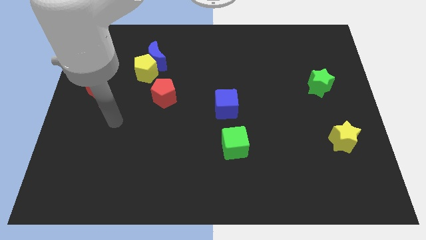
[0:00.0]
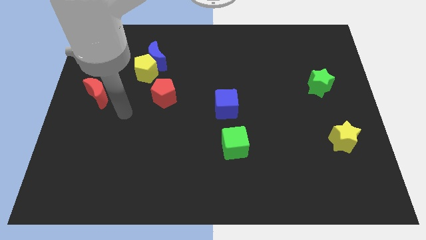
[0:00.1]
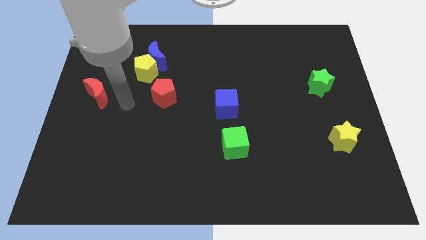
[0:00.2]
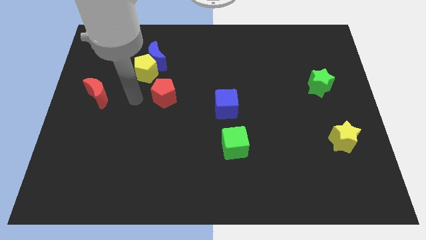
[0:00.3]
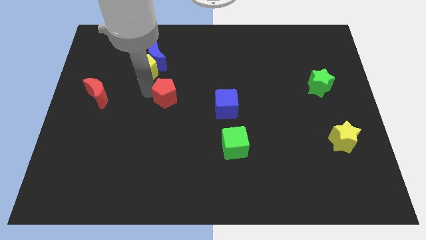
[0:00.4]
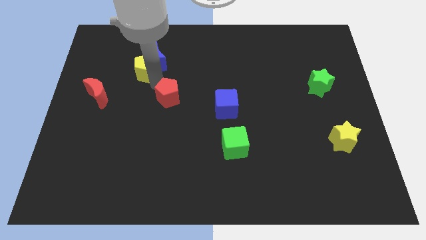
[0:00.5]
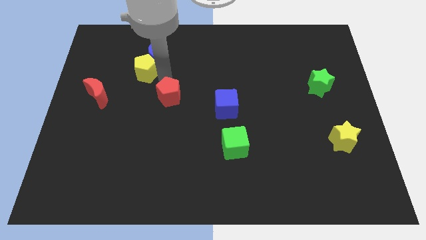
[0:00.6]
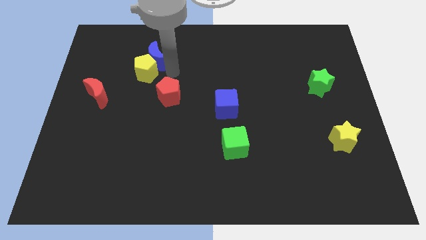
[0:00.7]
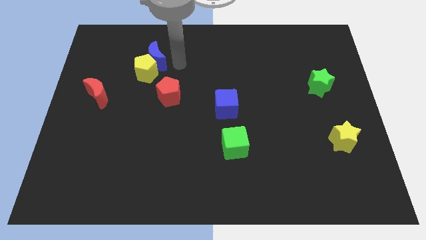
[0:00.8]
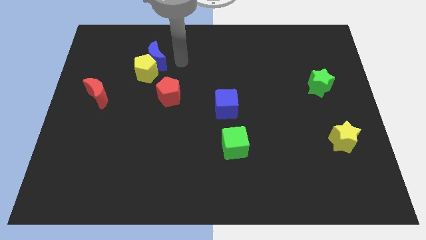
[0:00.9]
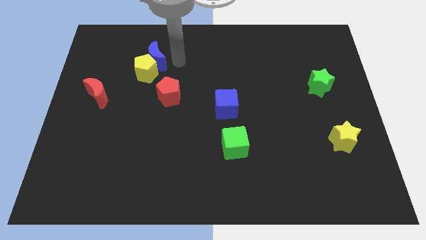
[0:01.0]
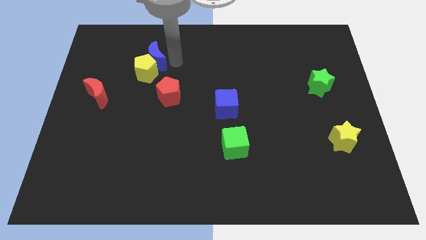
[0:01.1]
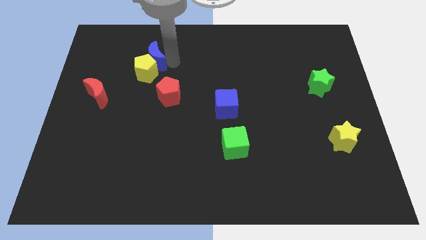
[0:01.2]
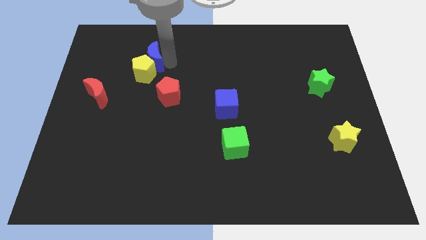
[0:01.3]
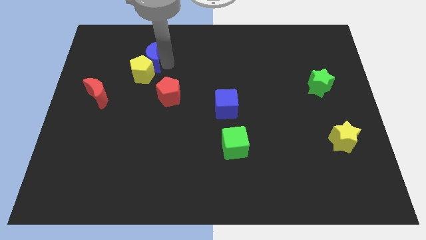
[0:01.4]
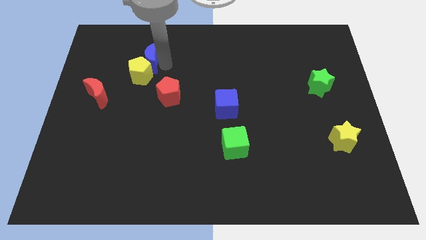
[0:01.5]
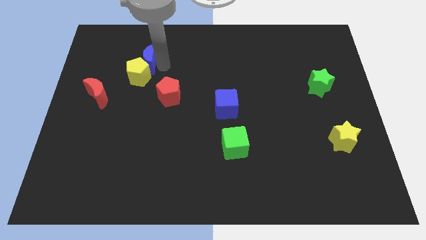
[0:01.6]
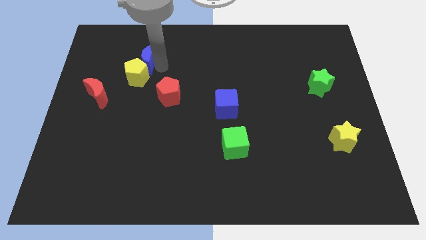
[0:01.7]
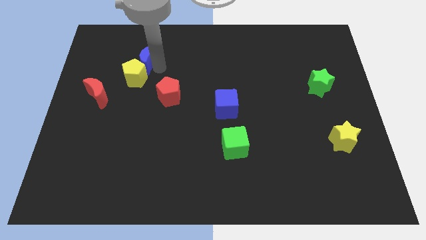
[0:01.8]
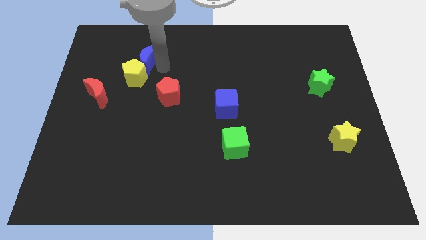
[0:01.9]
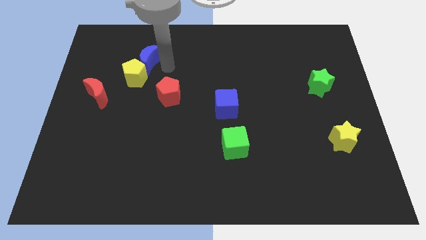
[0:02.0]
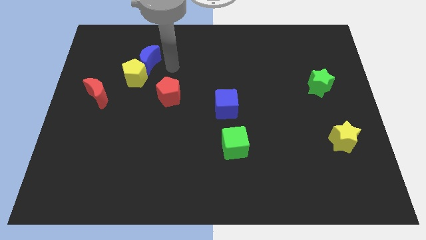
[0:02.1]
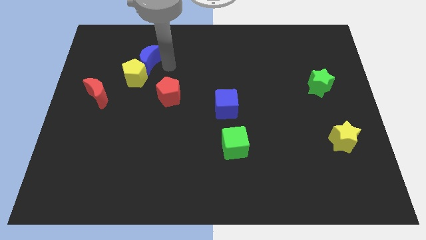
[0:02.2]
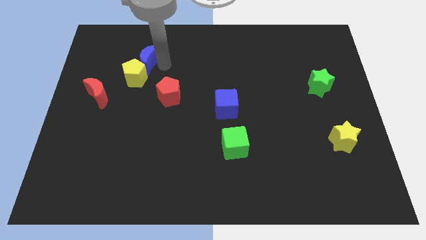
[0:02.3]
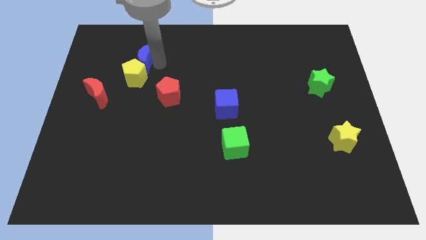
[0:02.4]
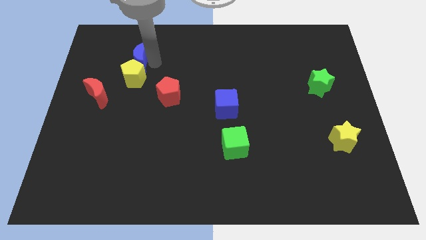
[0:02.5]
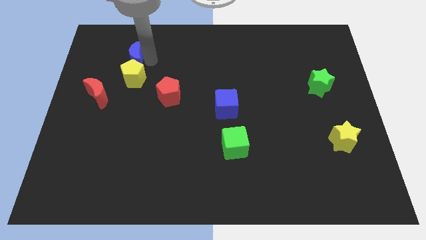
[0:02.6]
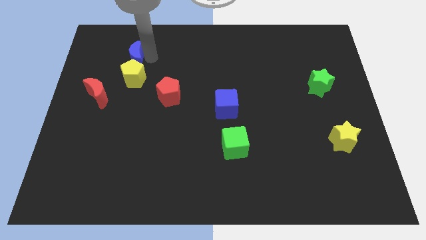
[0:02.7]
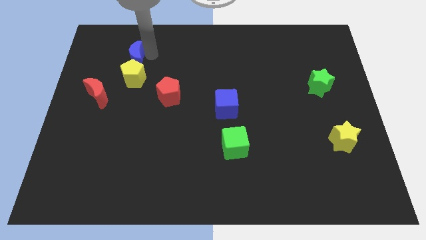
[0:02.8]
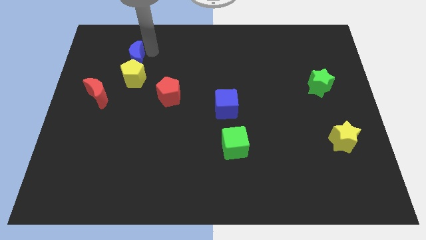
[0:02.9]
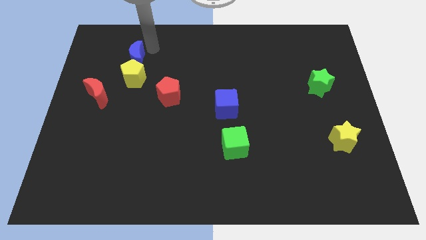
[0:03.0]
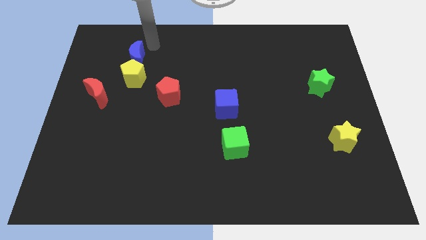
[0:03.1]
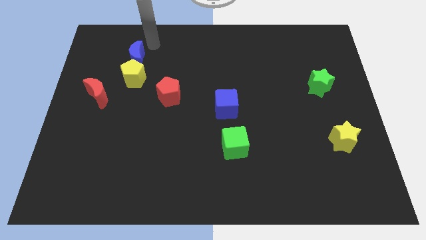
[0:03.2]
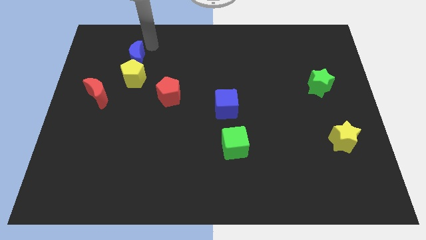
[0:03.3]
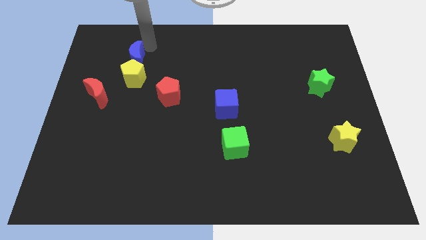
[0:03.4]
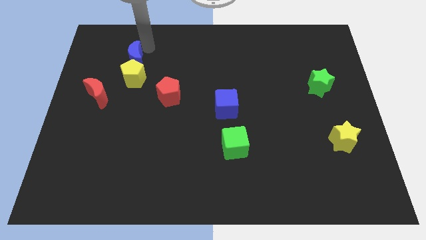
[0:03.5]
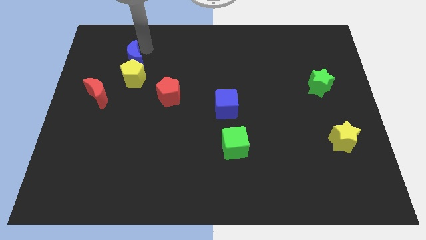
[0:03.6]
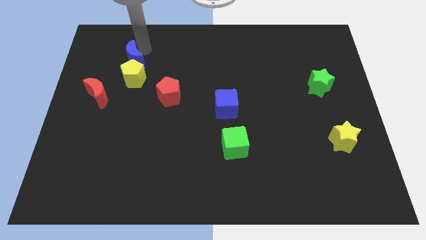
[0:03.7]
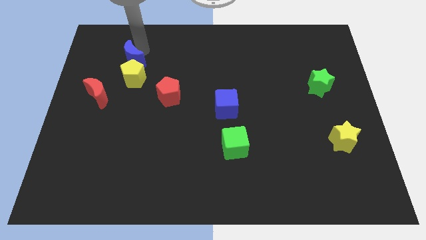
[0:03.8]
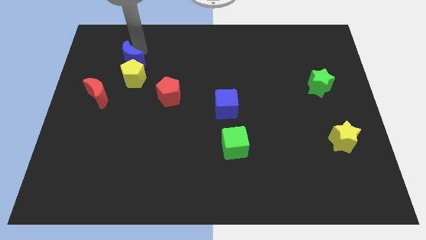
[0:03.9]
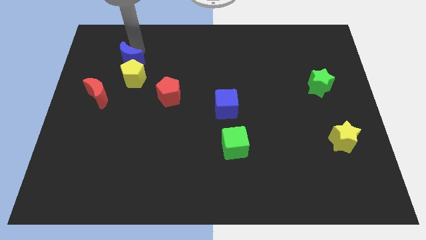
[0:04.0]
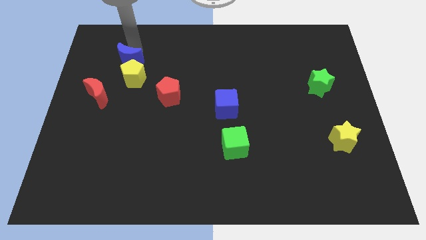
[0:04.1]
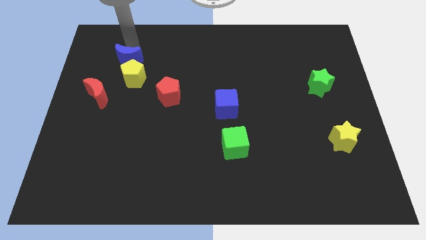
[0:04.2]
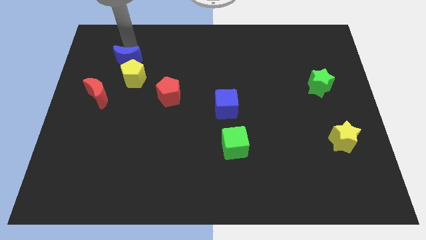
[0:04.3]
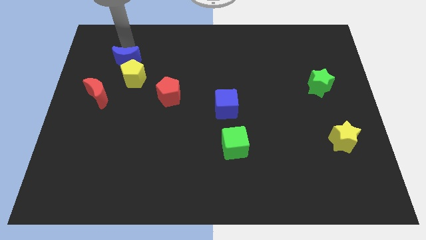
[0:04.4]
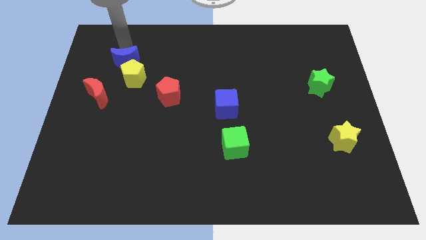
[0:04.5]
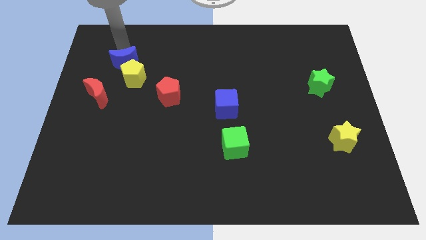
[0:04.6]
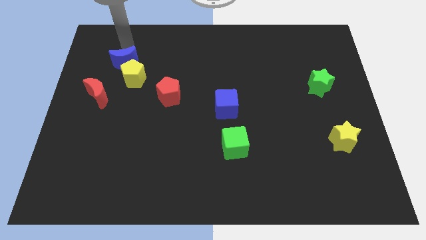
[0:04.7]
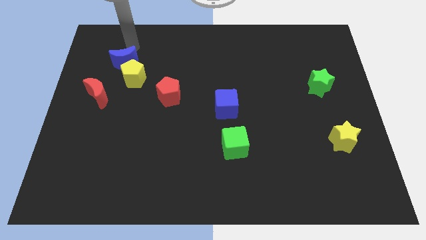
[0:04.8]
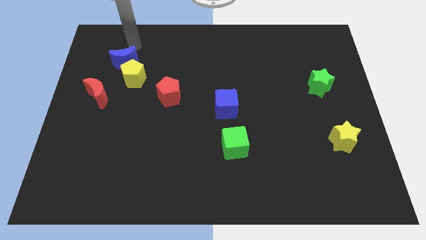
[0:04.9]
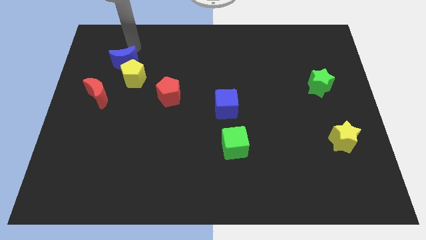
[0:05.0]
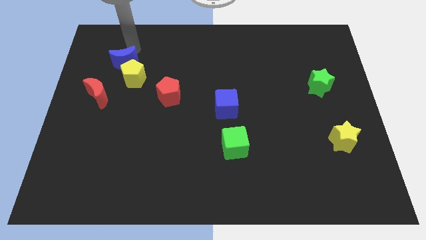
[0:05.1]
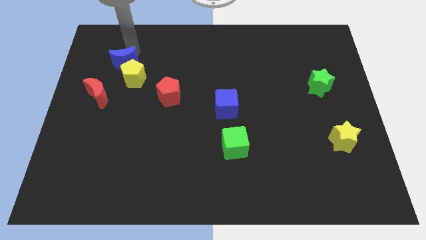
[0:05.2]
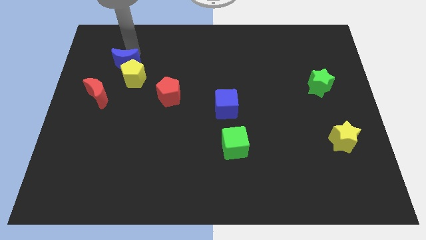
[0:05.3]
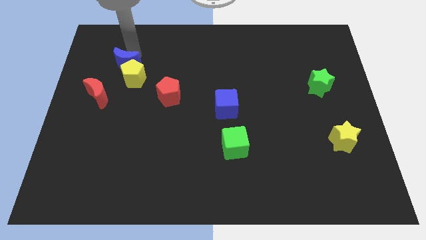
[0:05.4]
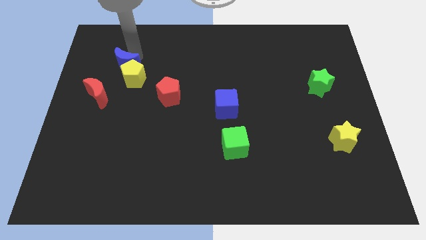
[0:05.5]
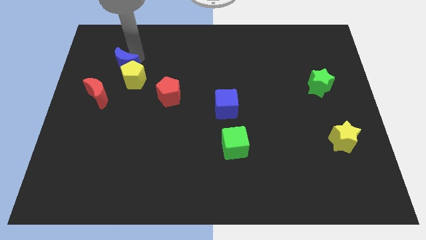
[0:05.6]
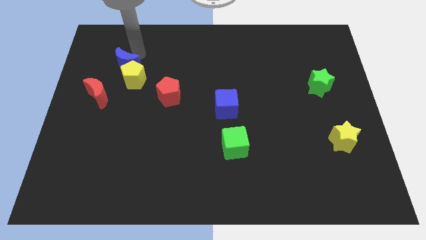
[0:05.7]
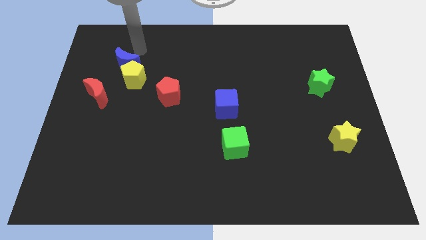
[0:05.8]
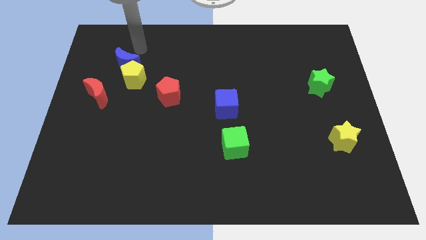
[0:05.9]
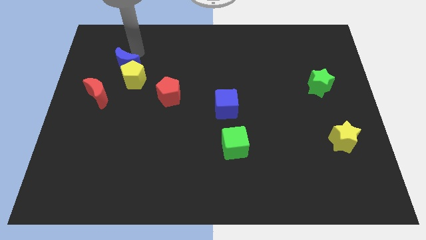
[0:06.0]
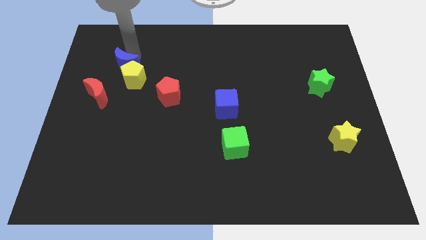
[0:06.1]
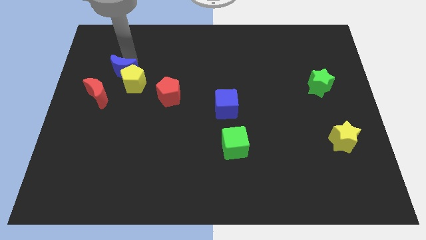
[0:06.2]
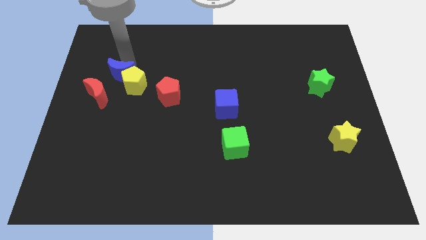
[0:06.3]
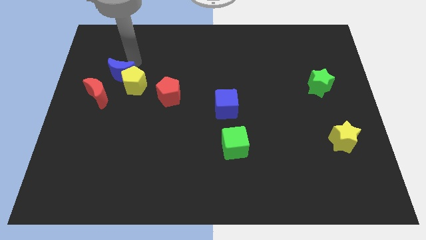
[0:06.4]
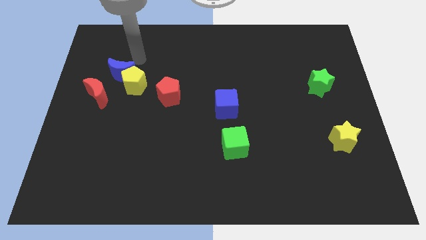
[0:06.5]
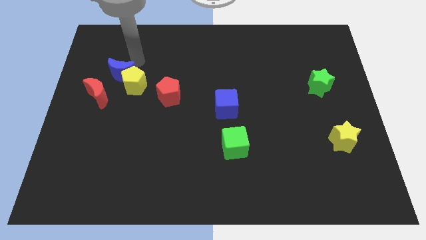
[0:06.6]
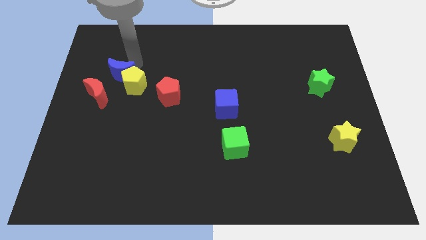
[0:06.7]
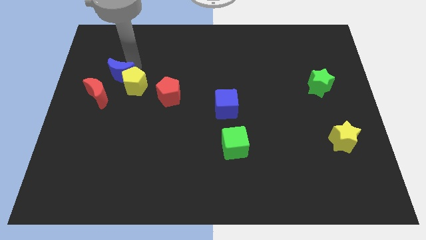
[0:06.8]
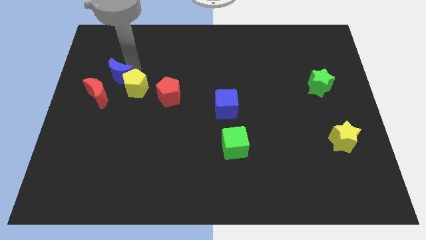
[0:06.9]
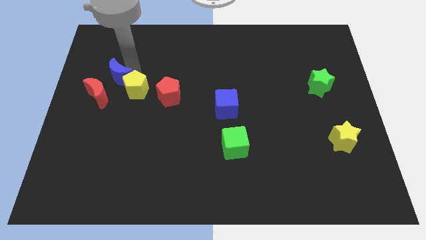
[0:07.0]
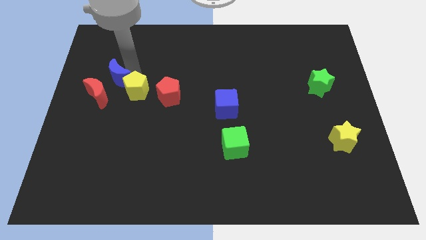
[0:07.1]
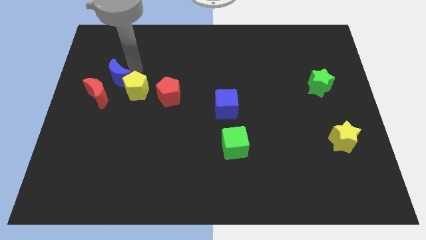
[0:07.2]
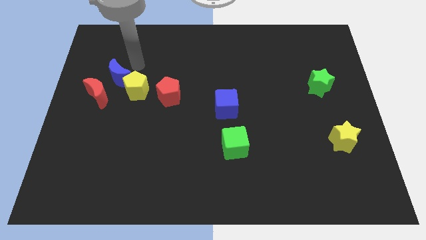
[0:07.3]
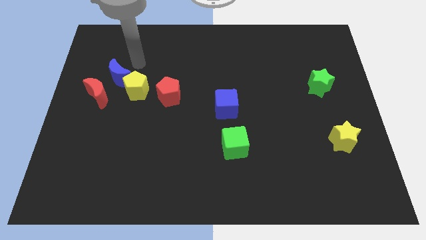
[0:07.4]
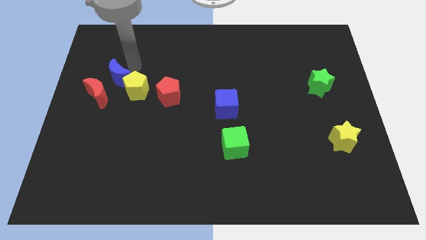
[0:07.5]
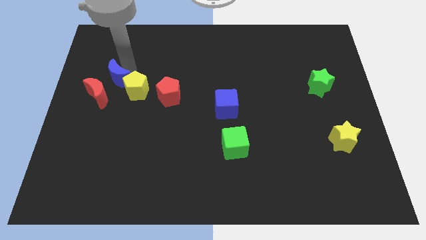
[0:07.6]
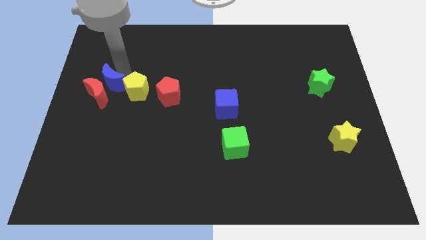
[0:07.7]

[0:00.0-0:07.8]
slide the blue moon next to the red moon

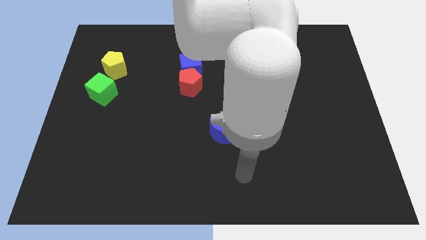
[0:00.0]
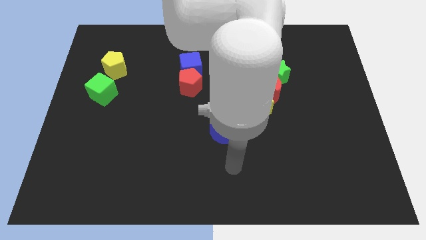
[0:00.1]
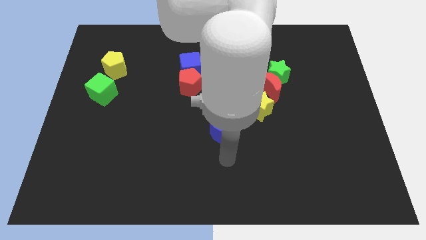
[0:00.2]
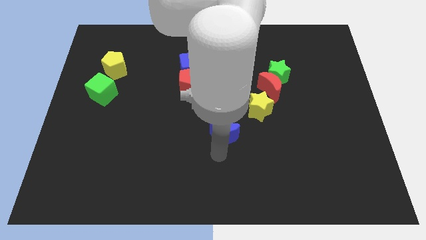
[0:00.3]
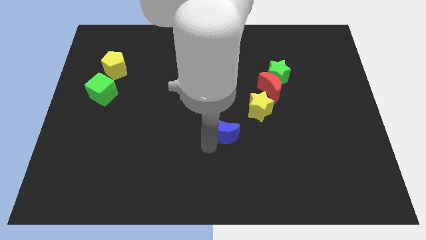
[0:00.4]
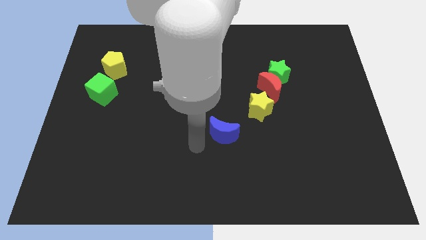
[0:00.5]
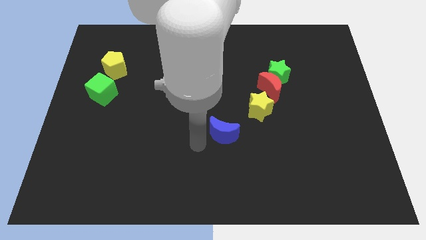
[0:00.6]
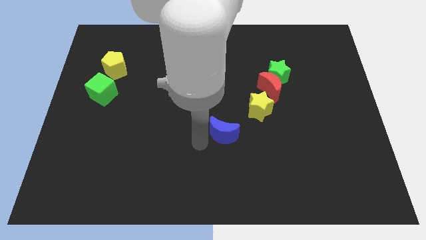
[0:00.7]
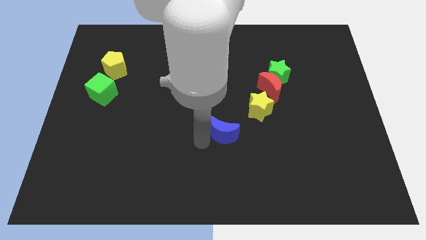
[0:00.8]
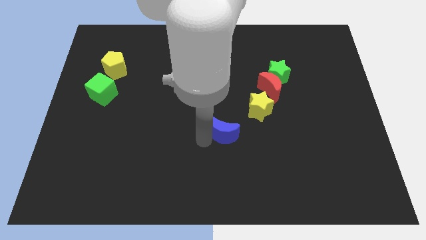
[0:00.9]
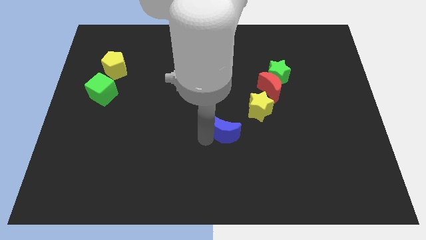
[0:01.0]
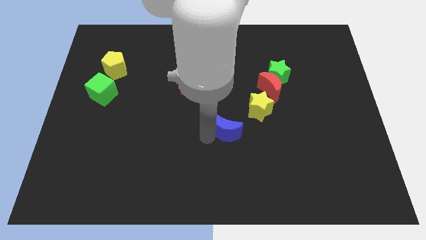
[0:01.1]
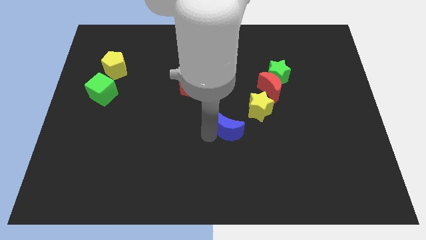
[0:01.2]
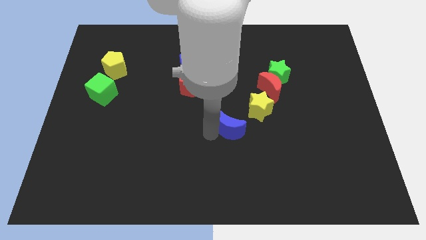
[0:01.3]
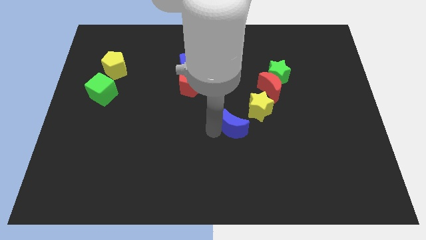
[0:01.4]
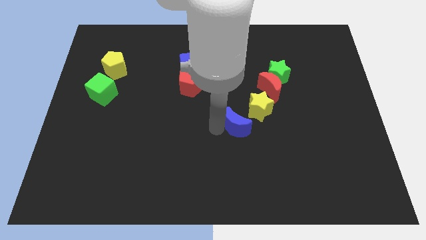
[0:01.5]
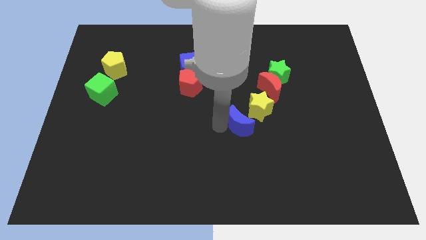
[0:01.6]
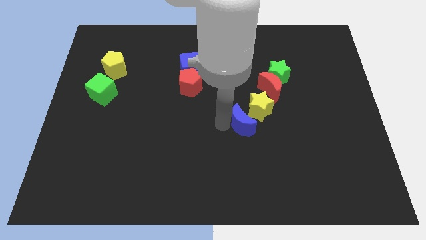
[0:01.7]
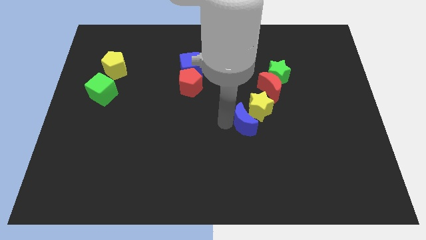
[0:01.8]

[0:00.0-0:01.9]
move the blue moon to the yellow star
